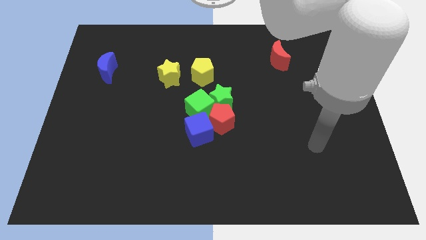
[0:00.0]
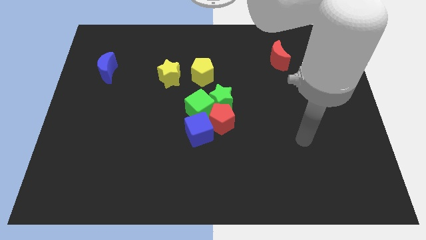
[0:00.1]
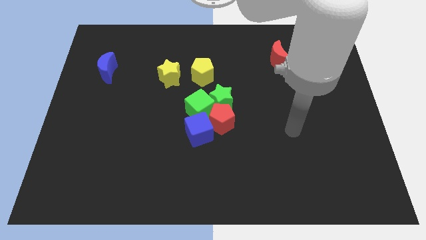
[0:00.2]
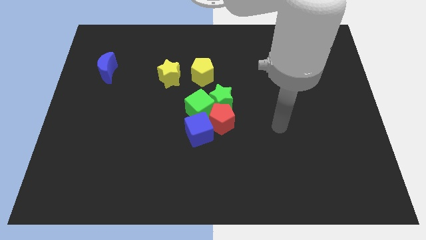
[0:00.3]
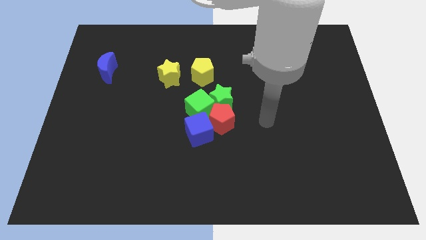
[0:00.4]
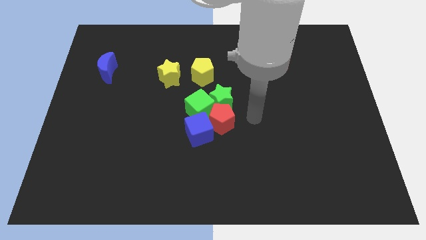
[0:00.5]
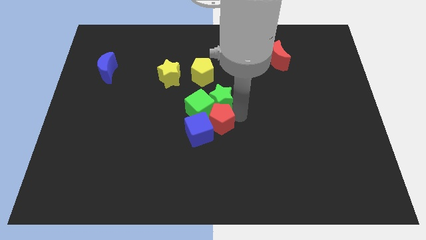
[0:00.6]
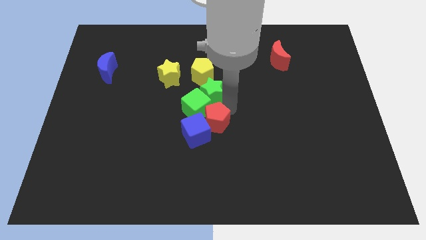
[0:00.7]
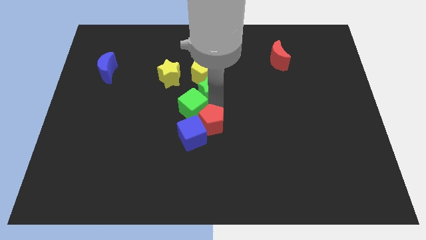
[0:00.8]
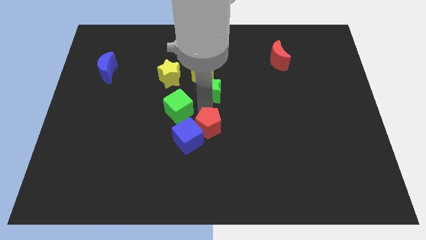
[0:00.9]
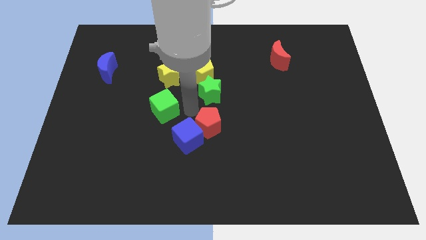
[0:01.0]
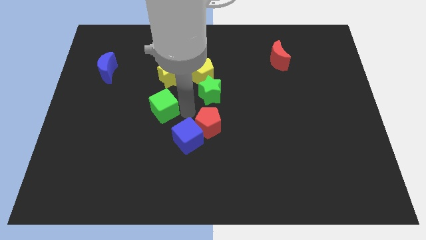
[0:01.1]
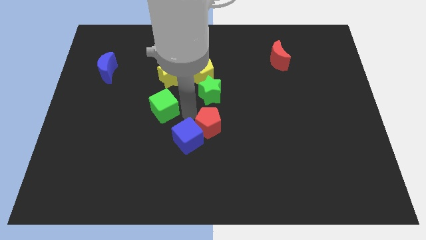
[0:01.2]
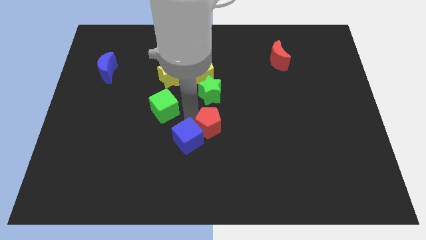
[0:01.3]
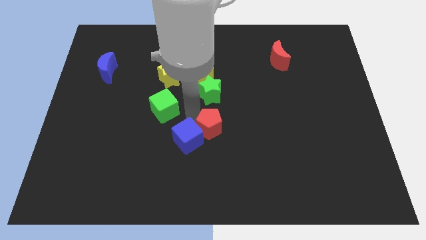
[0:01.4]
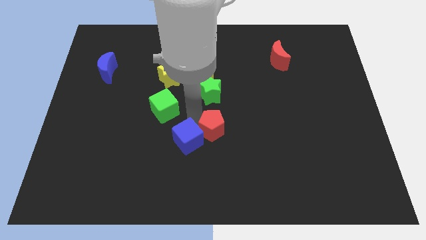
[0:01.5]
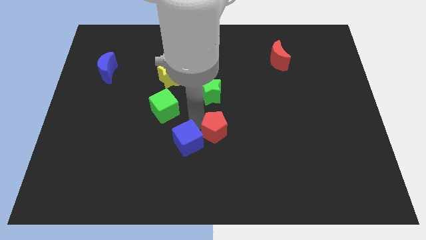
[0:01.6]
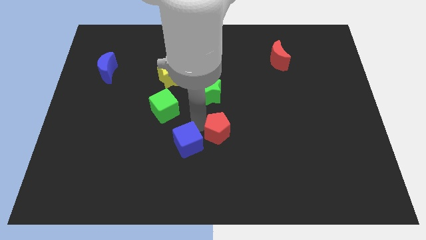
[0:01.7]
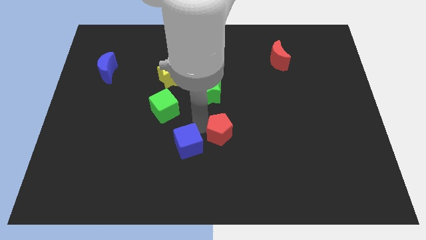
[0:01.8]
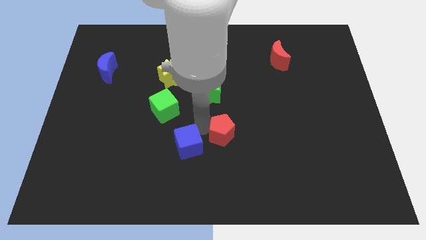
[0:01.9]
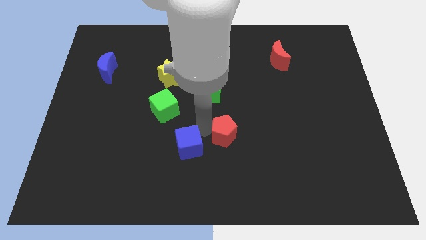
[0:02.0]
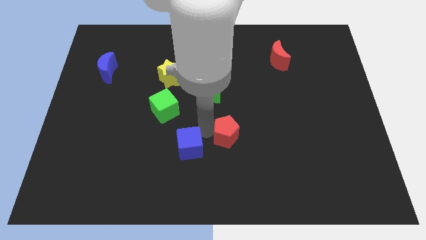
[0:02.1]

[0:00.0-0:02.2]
separate the red pentagon from the clump

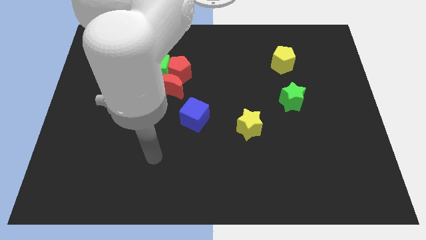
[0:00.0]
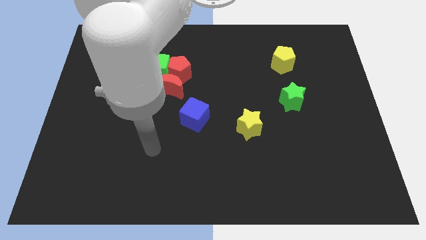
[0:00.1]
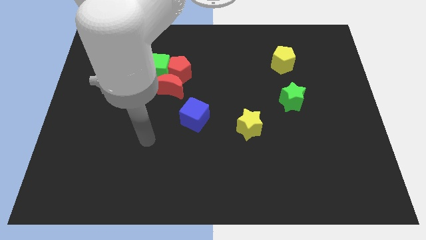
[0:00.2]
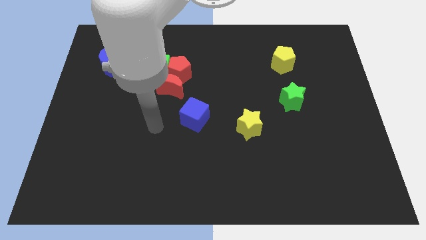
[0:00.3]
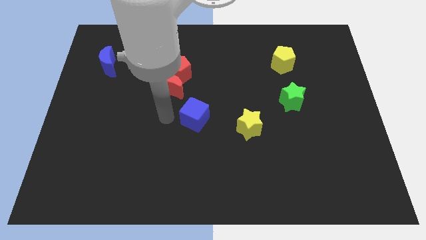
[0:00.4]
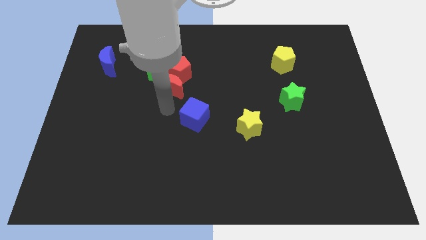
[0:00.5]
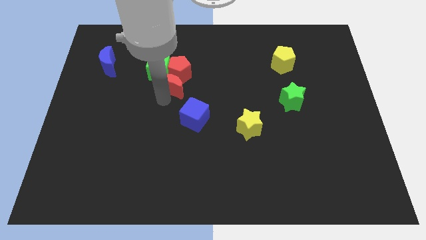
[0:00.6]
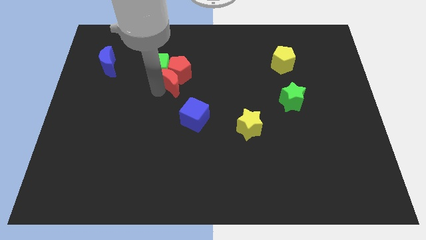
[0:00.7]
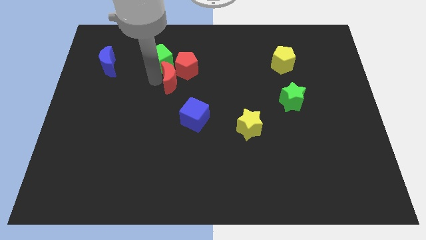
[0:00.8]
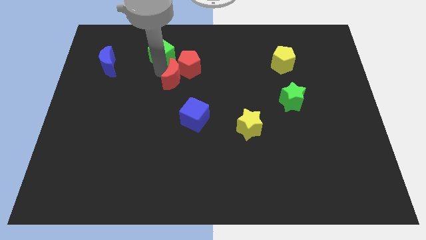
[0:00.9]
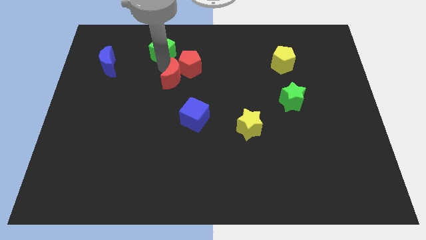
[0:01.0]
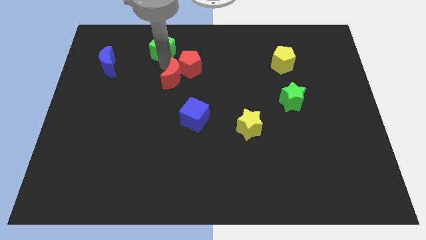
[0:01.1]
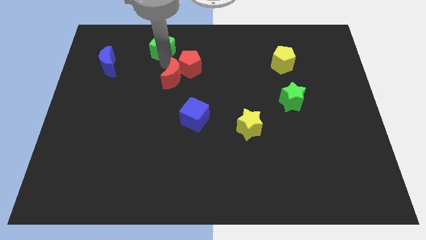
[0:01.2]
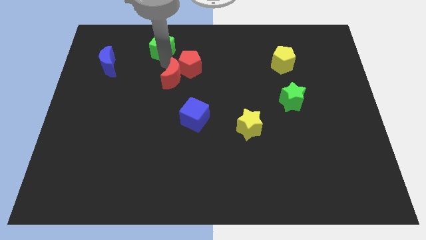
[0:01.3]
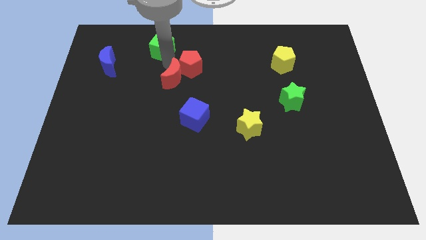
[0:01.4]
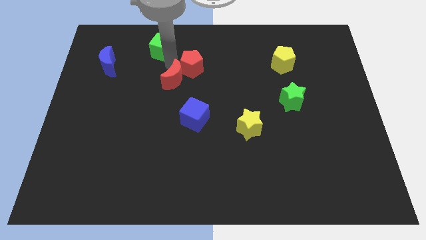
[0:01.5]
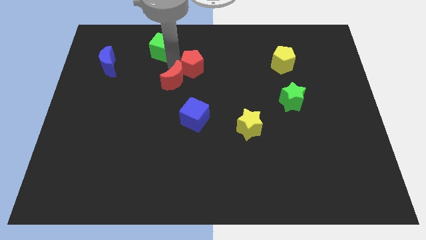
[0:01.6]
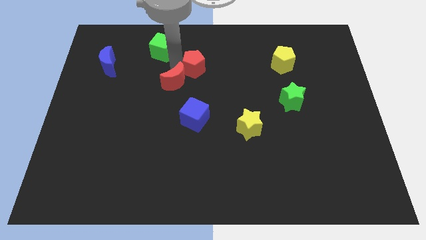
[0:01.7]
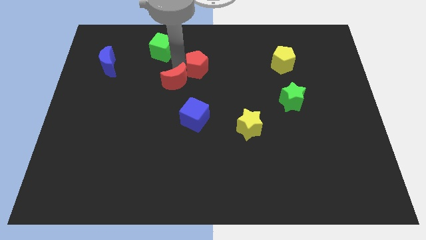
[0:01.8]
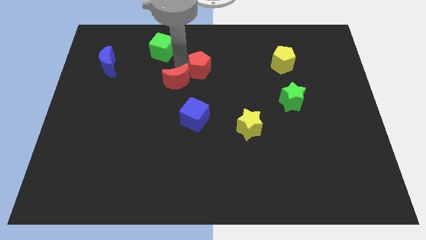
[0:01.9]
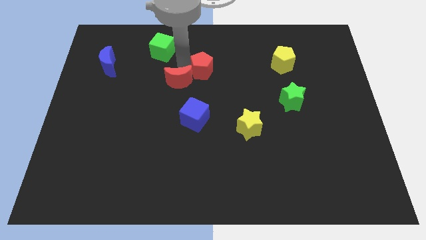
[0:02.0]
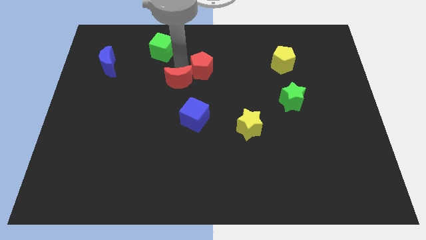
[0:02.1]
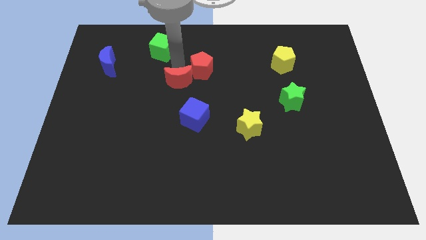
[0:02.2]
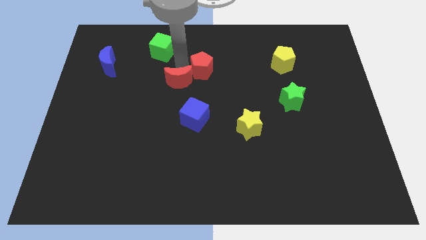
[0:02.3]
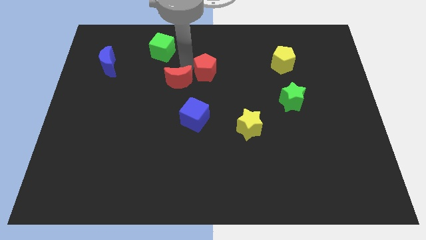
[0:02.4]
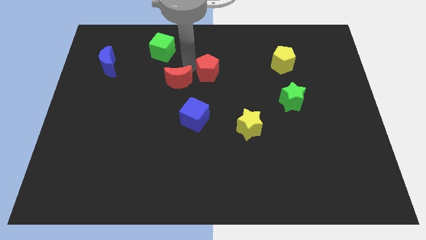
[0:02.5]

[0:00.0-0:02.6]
pull the red pentagon apart from the green cube and red moon

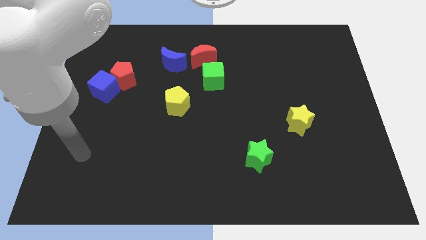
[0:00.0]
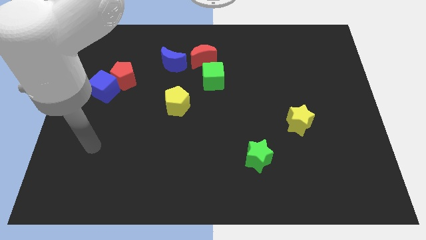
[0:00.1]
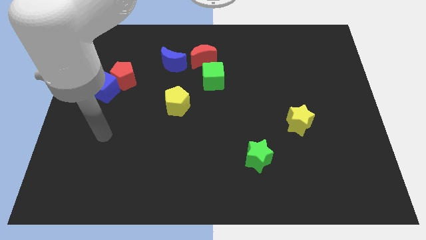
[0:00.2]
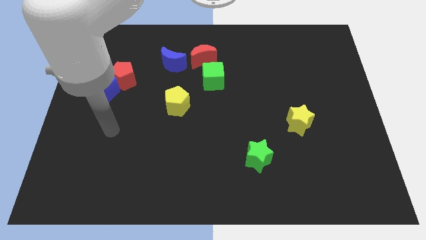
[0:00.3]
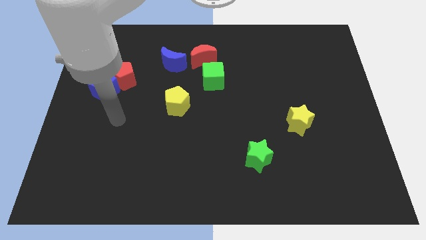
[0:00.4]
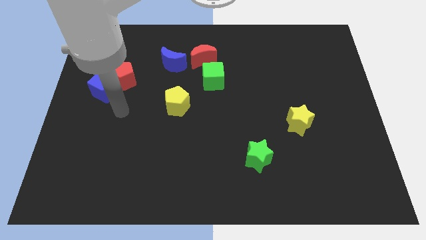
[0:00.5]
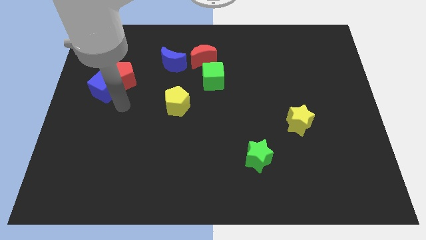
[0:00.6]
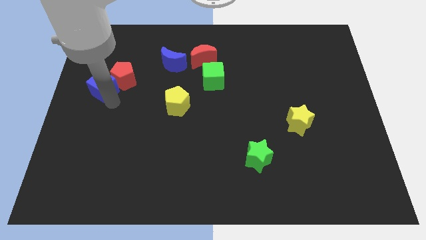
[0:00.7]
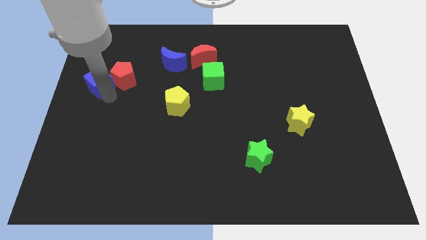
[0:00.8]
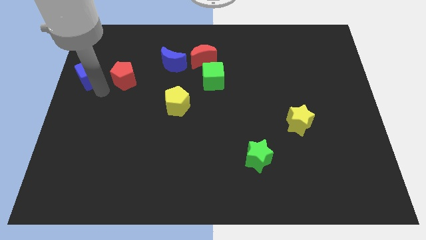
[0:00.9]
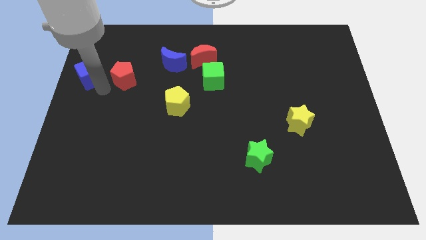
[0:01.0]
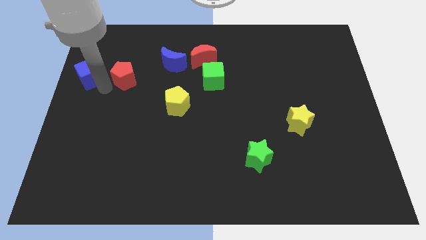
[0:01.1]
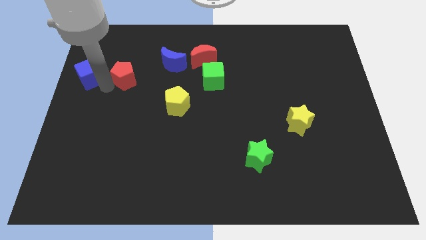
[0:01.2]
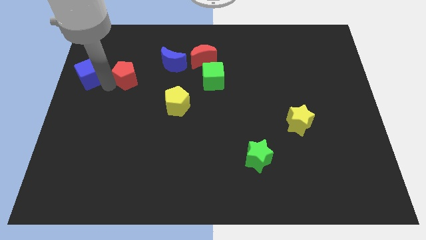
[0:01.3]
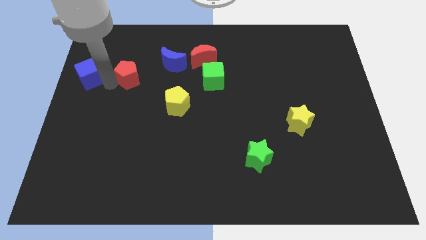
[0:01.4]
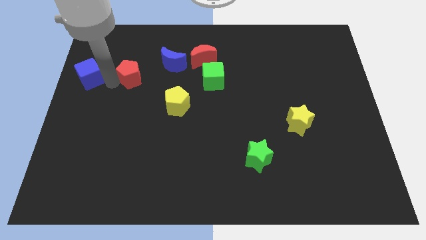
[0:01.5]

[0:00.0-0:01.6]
pull the red pentagon apart from the blue cube

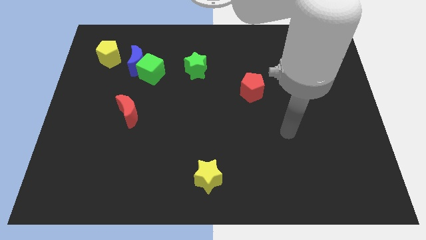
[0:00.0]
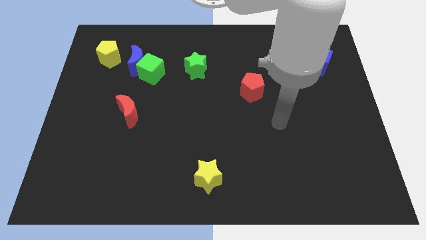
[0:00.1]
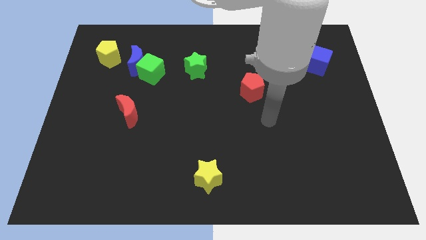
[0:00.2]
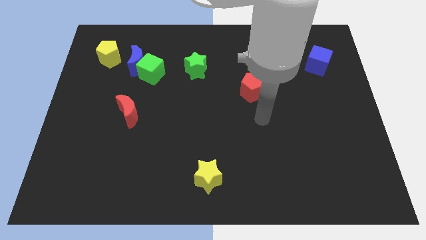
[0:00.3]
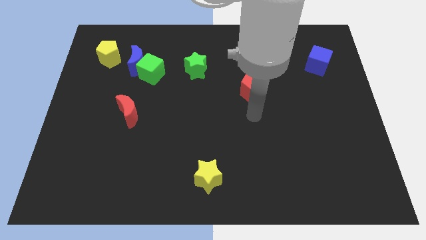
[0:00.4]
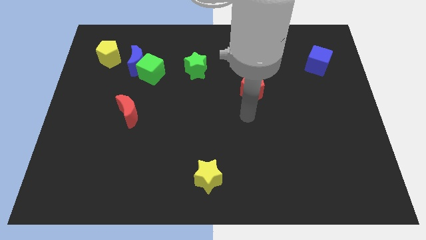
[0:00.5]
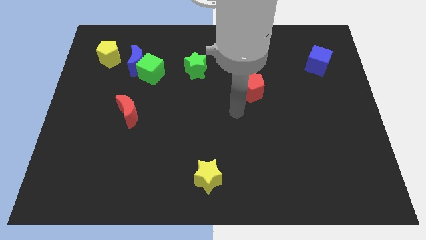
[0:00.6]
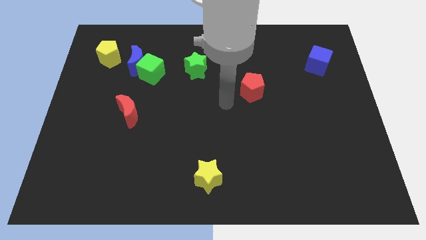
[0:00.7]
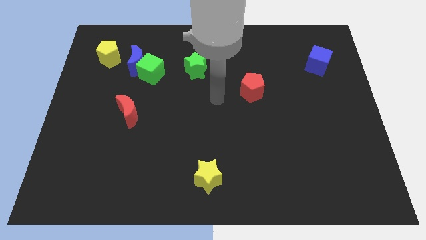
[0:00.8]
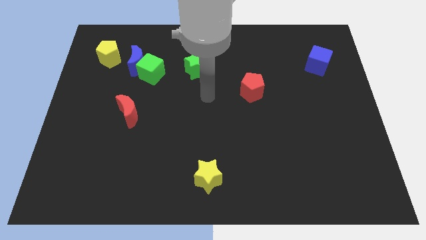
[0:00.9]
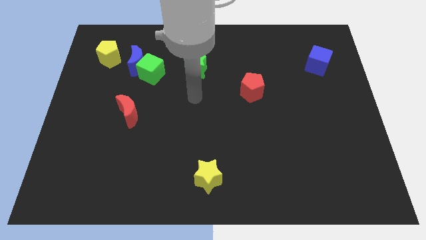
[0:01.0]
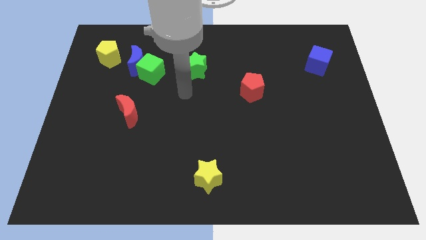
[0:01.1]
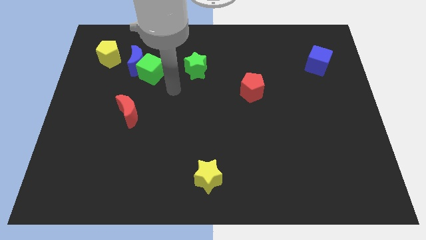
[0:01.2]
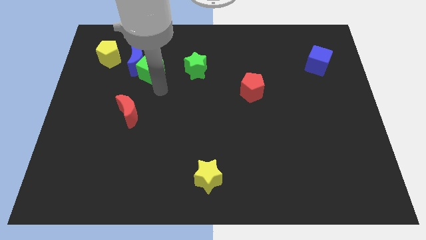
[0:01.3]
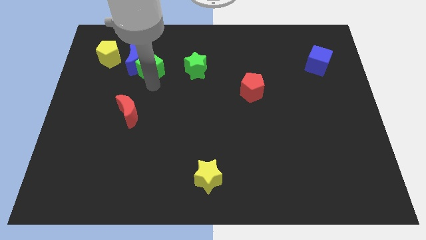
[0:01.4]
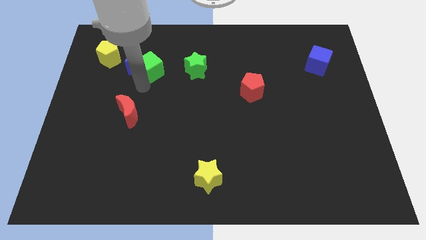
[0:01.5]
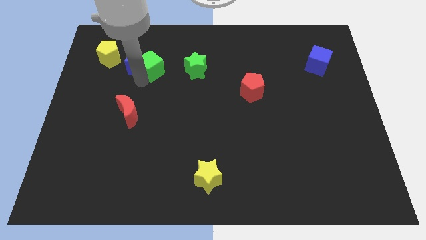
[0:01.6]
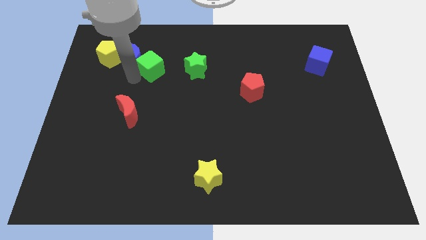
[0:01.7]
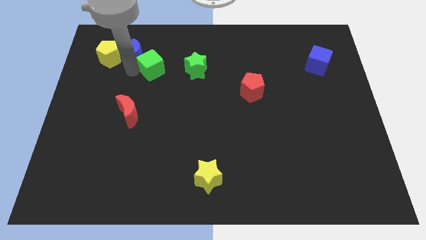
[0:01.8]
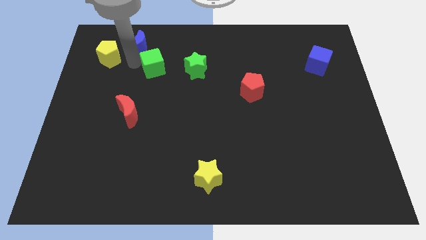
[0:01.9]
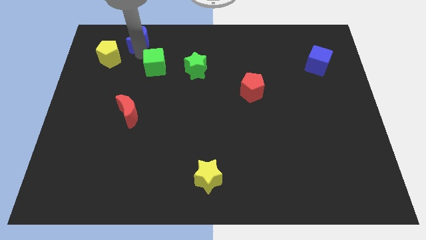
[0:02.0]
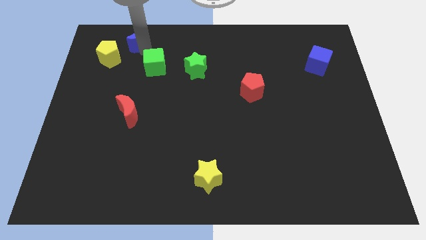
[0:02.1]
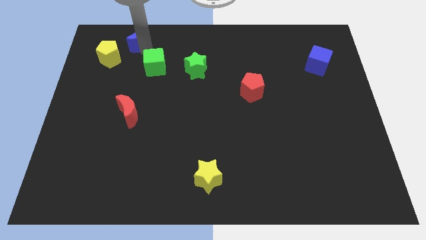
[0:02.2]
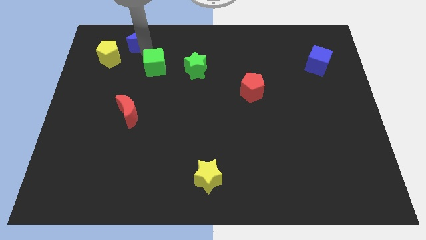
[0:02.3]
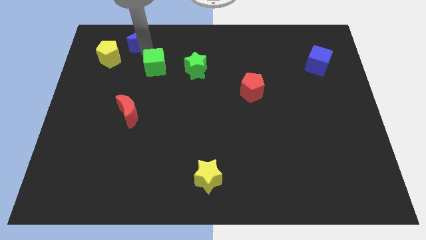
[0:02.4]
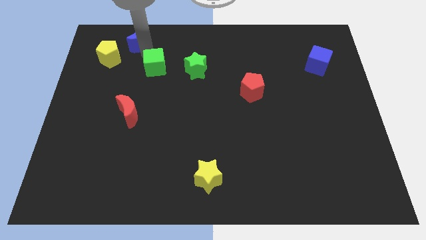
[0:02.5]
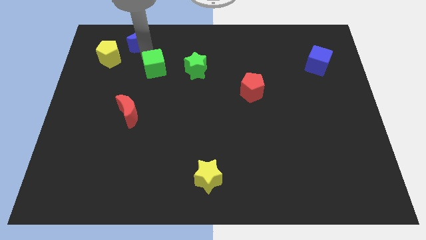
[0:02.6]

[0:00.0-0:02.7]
separate the green cube from the blue moon

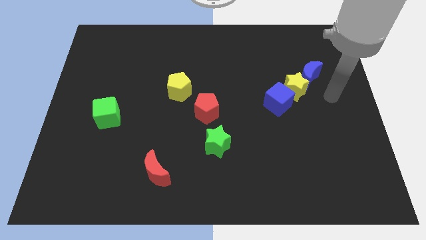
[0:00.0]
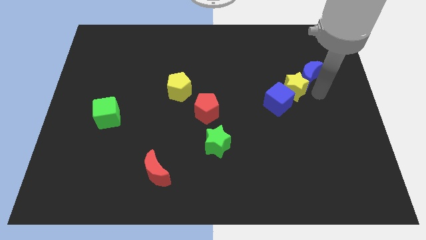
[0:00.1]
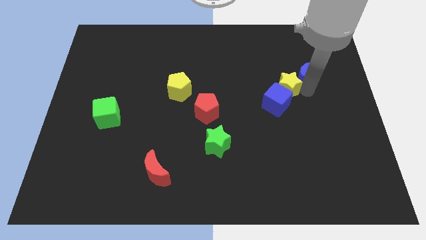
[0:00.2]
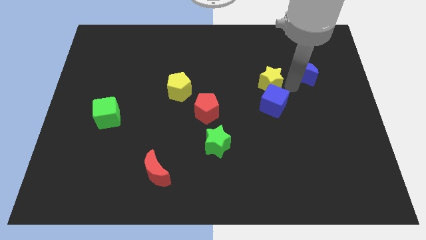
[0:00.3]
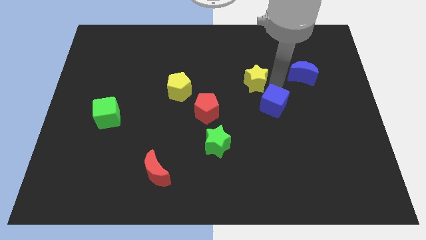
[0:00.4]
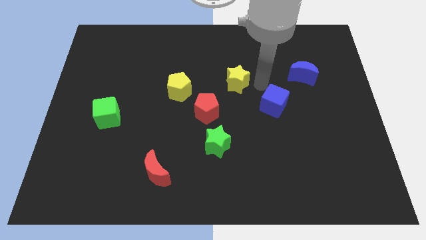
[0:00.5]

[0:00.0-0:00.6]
separate the blue cube from the yellow star
